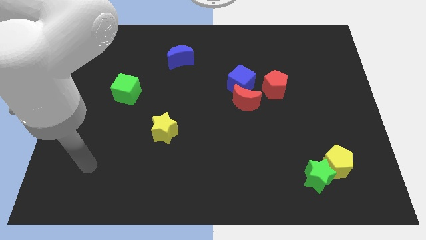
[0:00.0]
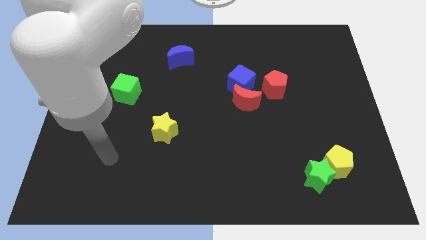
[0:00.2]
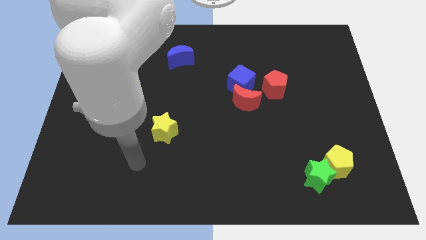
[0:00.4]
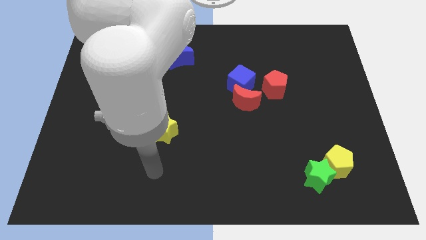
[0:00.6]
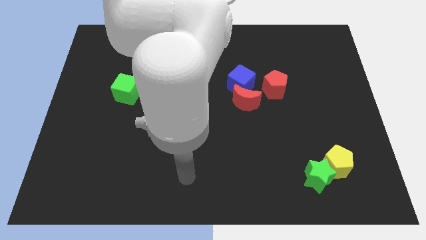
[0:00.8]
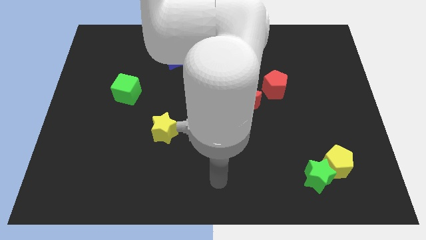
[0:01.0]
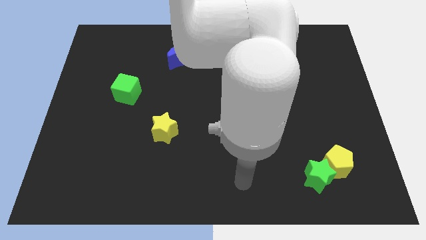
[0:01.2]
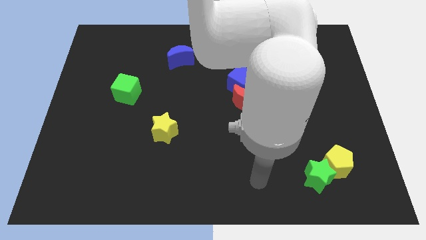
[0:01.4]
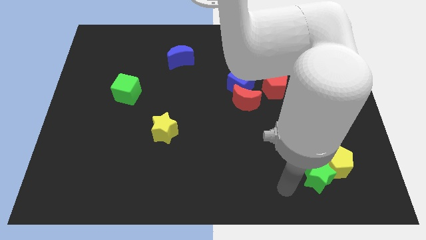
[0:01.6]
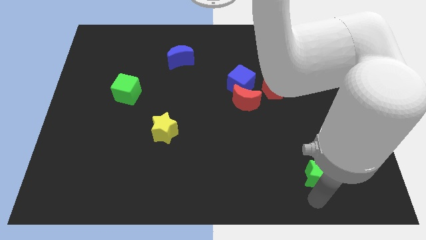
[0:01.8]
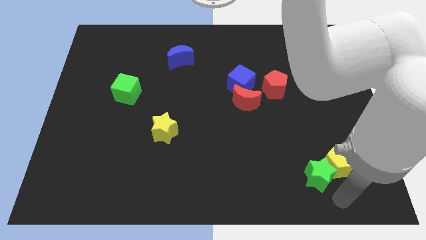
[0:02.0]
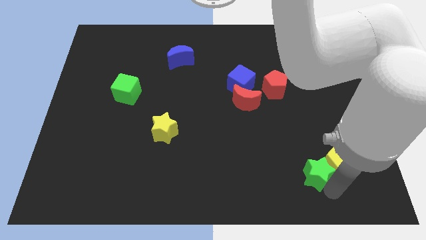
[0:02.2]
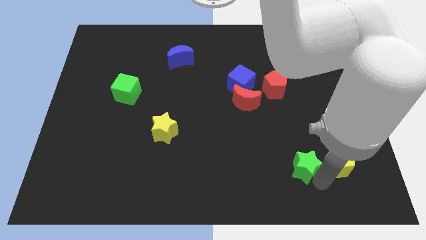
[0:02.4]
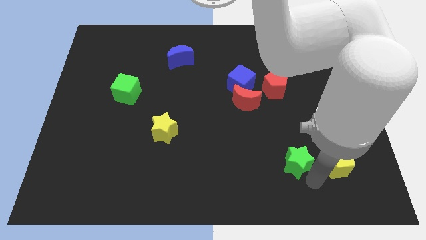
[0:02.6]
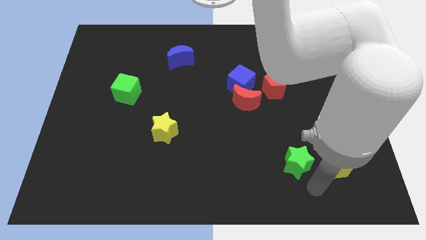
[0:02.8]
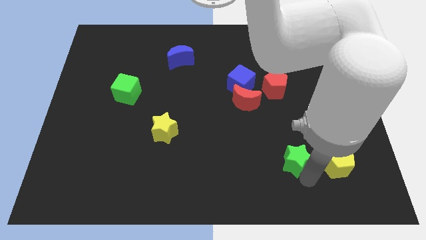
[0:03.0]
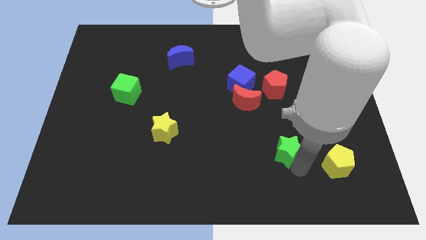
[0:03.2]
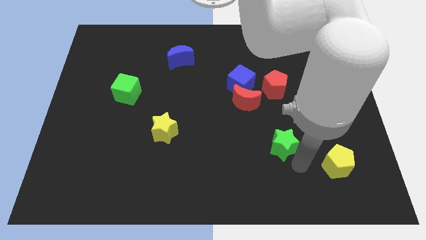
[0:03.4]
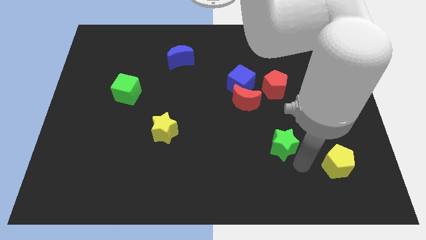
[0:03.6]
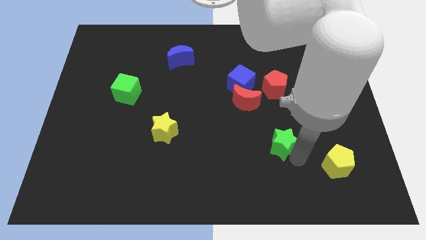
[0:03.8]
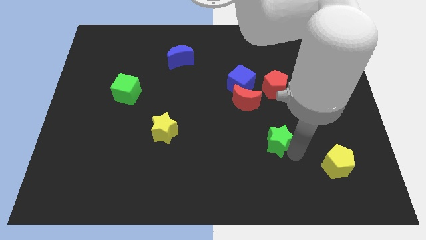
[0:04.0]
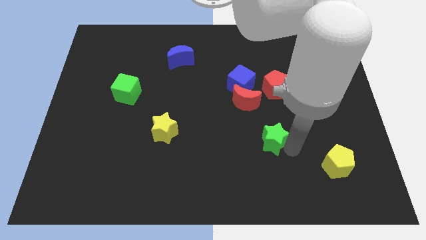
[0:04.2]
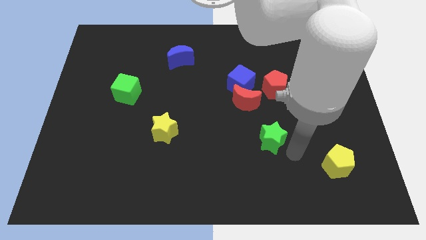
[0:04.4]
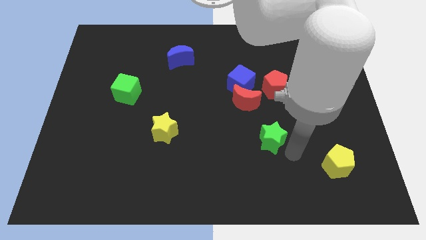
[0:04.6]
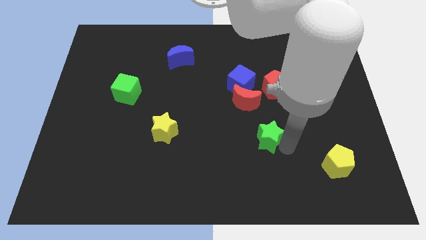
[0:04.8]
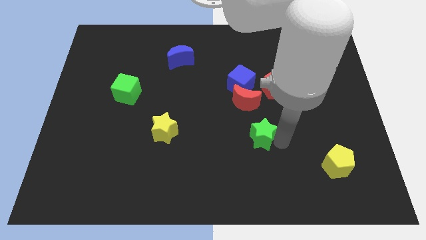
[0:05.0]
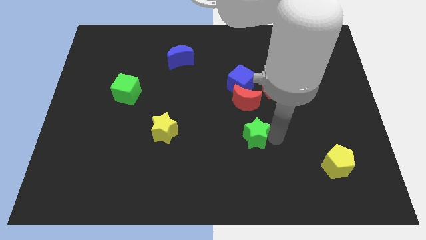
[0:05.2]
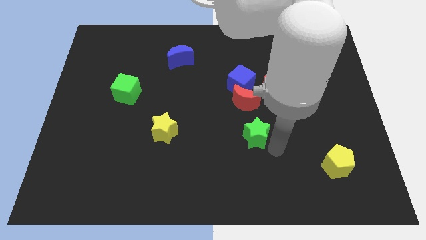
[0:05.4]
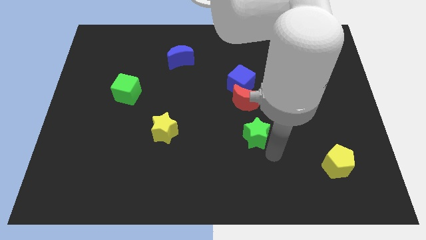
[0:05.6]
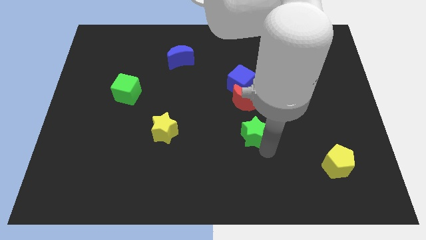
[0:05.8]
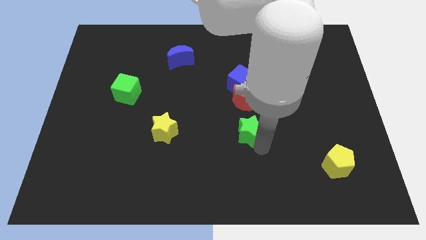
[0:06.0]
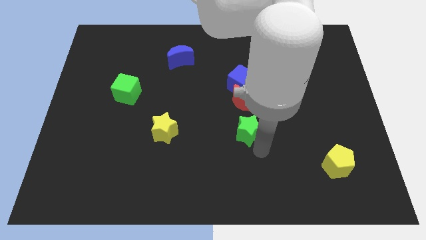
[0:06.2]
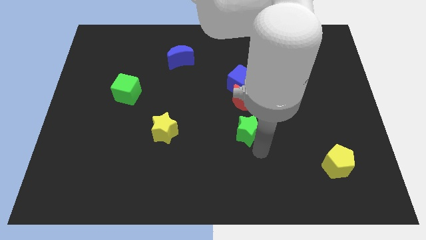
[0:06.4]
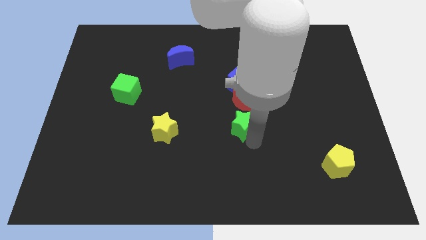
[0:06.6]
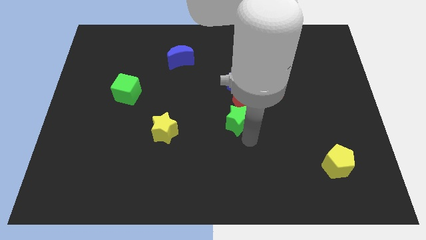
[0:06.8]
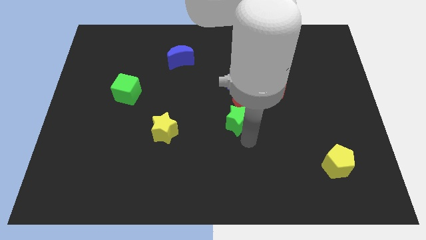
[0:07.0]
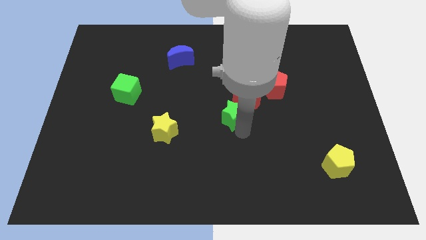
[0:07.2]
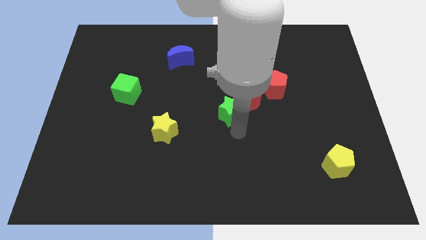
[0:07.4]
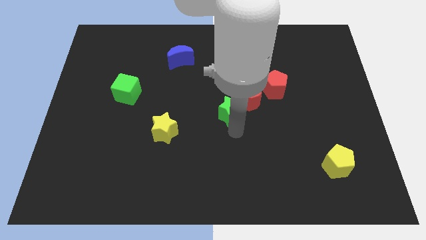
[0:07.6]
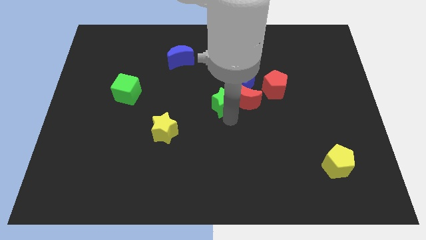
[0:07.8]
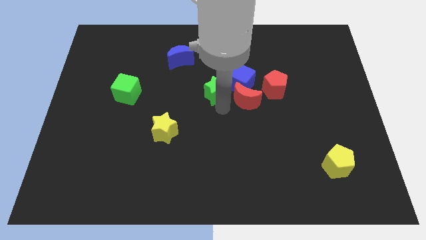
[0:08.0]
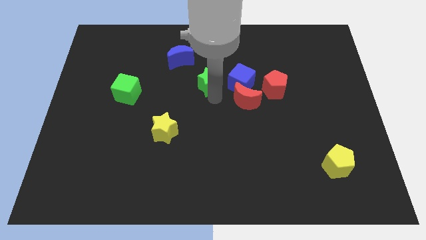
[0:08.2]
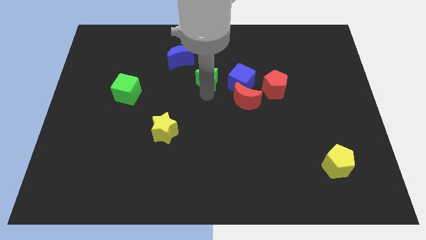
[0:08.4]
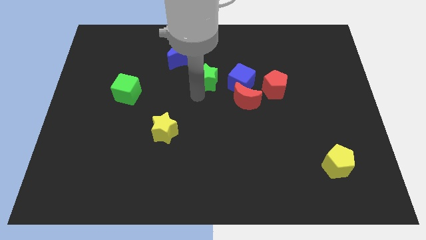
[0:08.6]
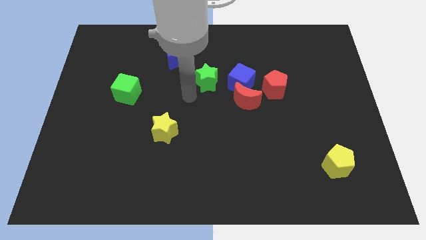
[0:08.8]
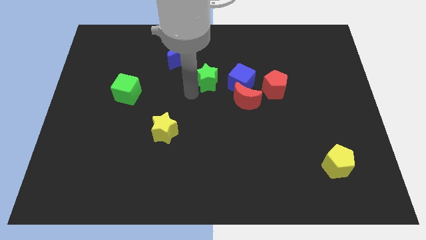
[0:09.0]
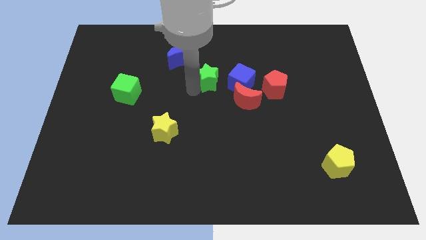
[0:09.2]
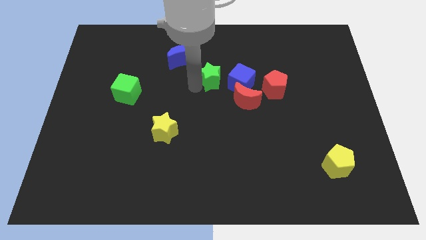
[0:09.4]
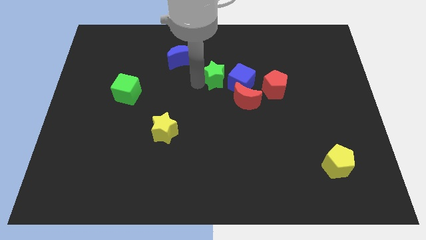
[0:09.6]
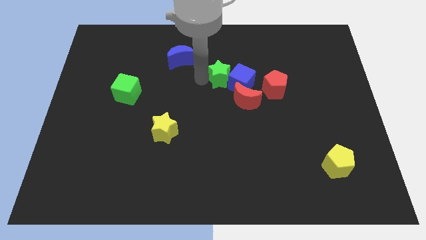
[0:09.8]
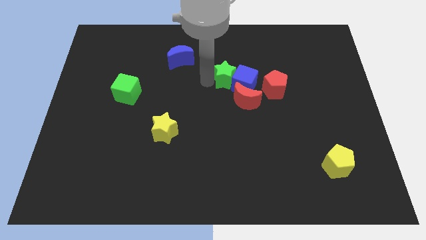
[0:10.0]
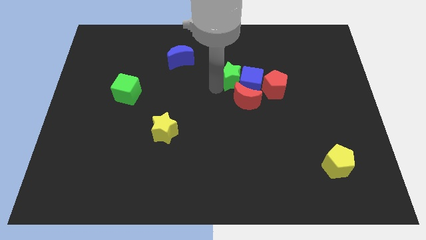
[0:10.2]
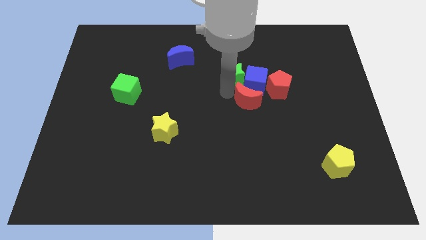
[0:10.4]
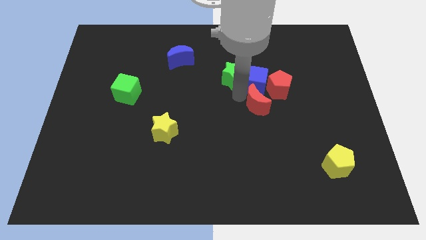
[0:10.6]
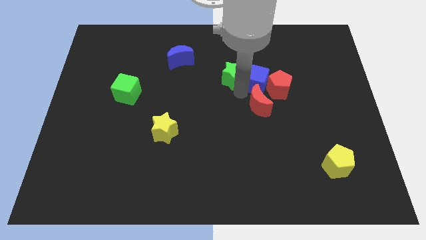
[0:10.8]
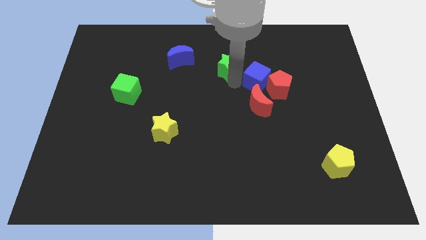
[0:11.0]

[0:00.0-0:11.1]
slide the green star just right of the blue moon

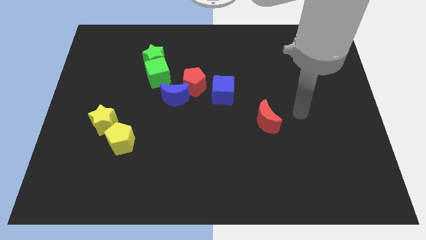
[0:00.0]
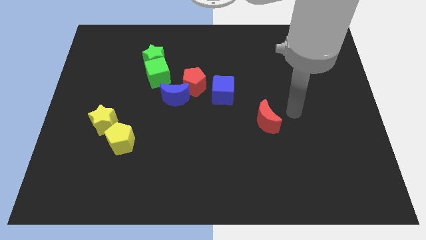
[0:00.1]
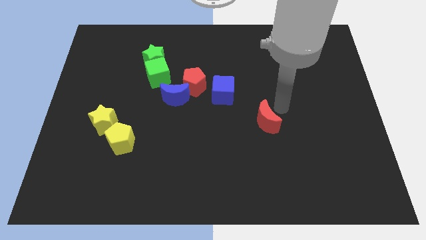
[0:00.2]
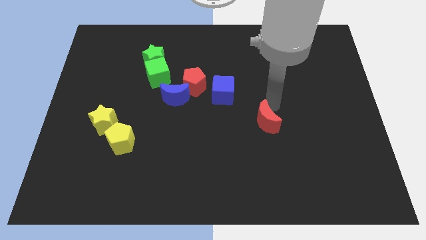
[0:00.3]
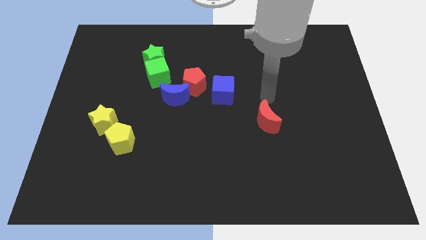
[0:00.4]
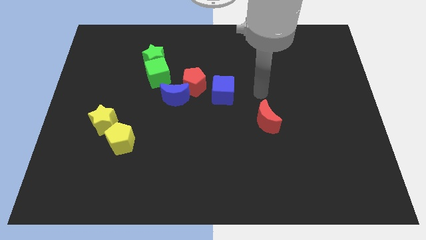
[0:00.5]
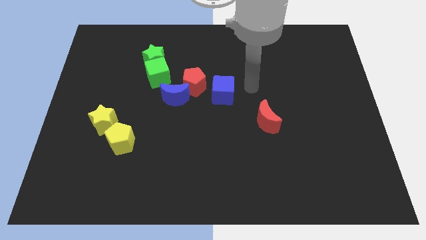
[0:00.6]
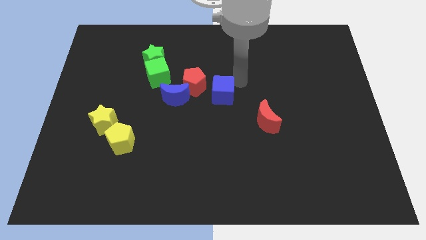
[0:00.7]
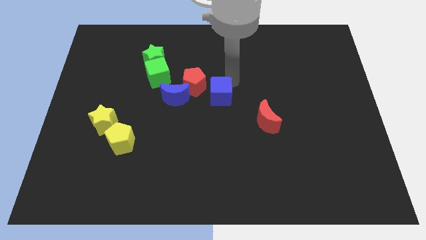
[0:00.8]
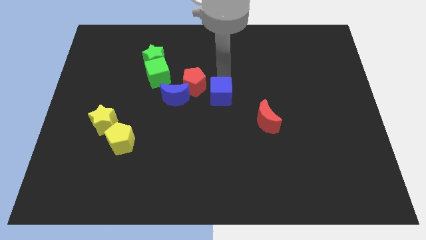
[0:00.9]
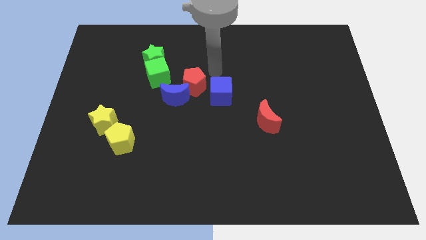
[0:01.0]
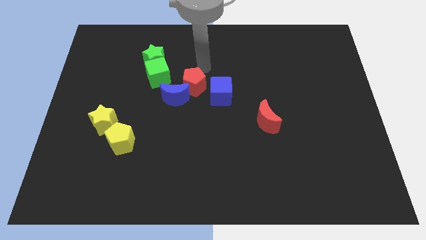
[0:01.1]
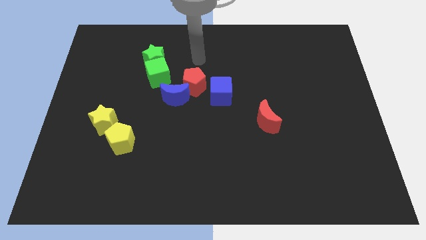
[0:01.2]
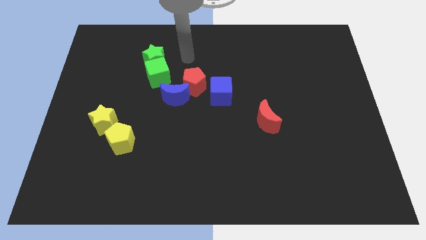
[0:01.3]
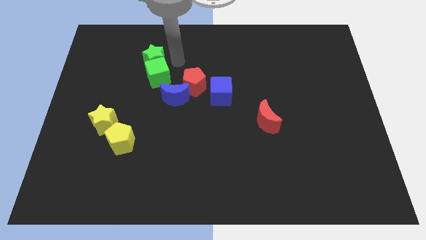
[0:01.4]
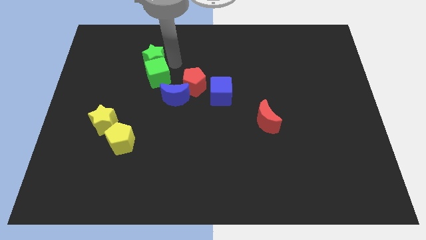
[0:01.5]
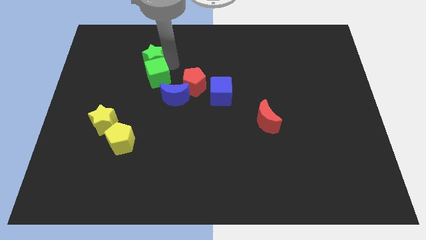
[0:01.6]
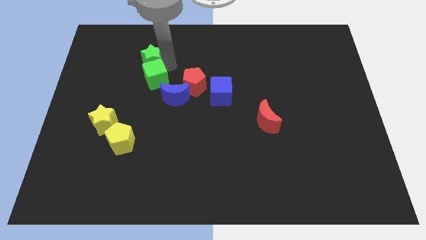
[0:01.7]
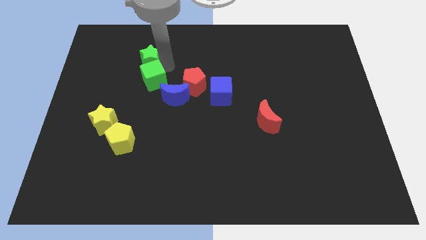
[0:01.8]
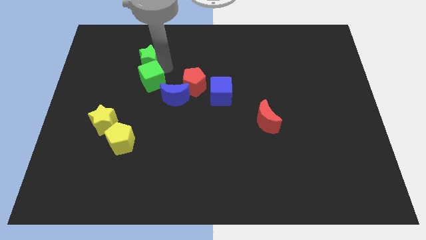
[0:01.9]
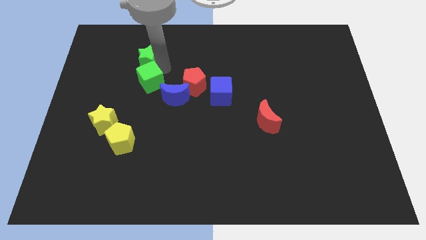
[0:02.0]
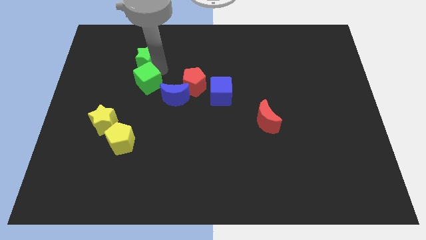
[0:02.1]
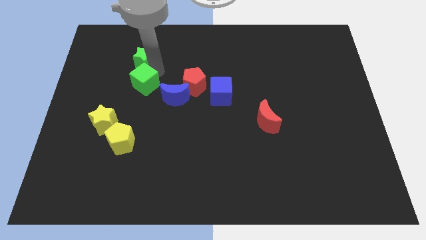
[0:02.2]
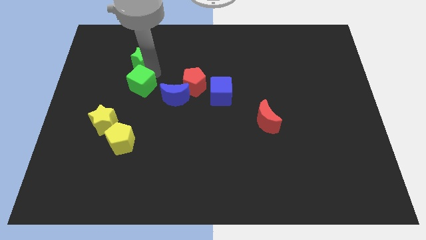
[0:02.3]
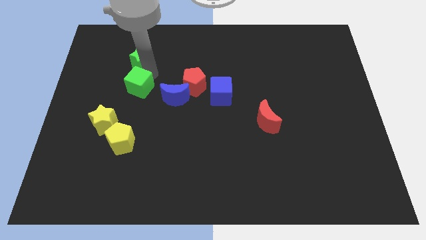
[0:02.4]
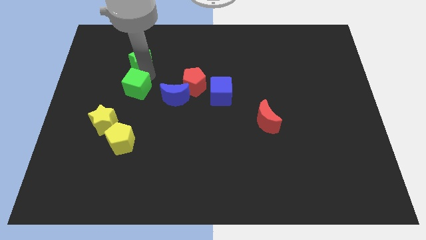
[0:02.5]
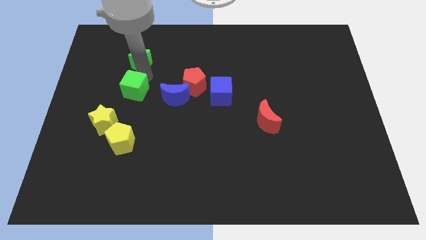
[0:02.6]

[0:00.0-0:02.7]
put the green cube to the top right side of the yellow star
